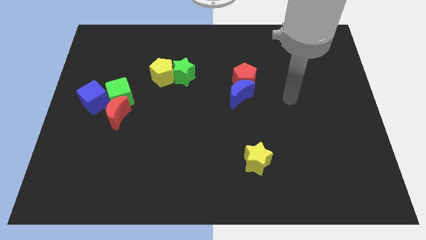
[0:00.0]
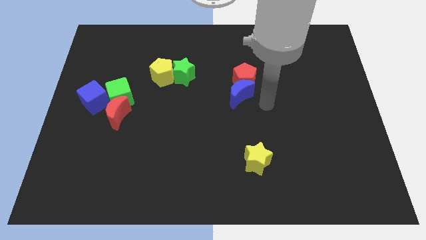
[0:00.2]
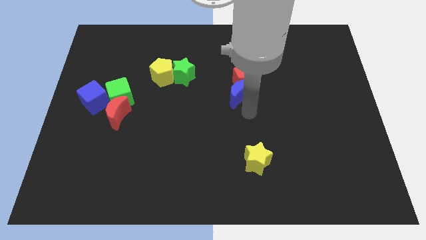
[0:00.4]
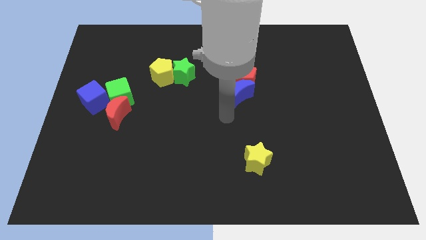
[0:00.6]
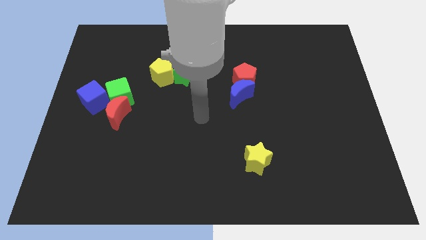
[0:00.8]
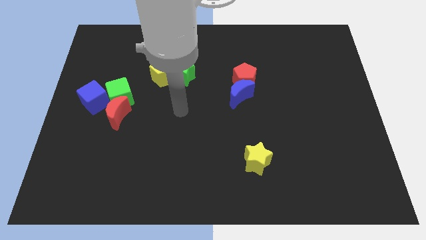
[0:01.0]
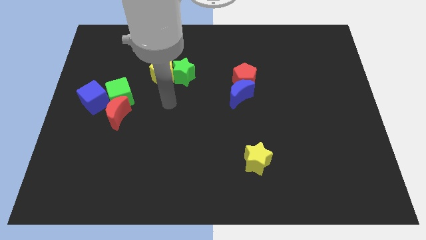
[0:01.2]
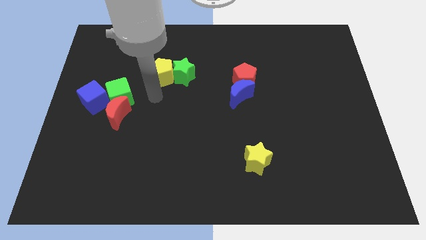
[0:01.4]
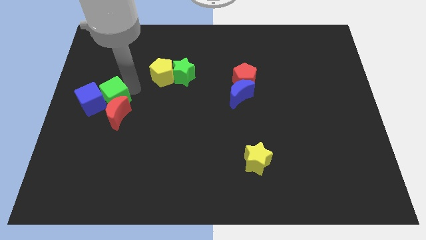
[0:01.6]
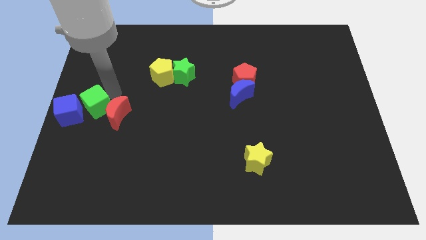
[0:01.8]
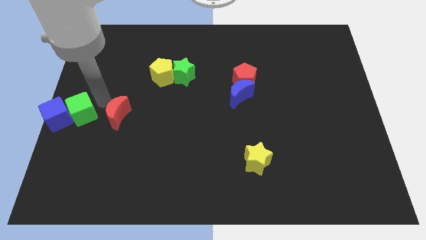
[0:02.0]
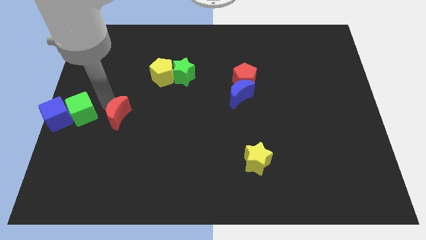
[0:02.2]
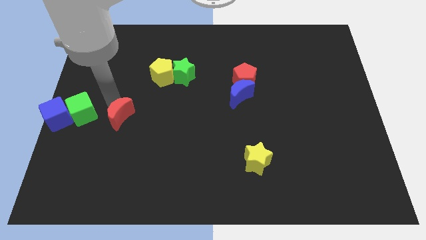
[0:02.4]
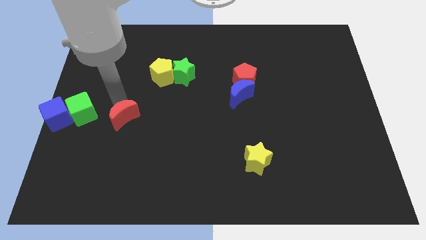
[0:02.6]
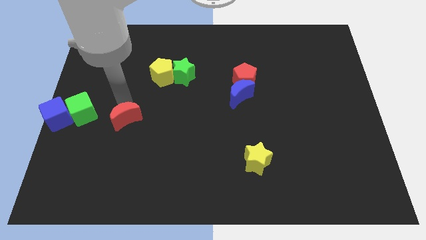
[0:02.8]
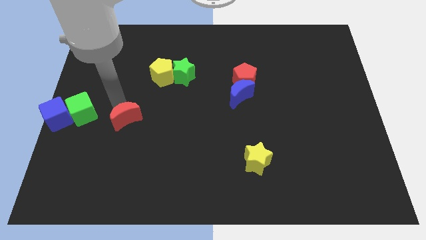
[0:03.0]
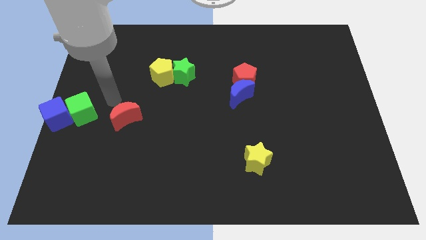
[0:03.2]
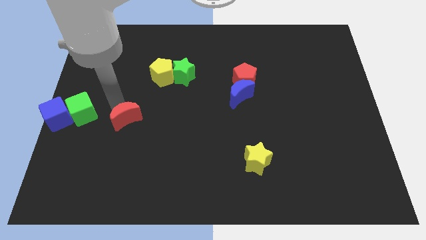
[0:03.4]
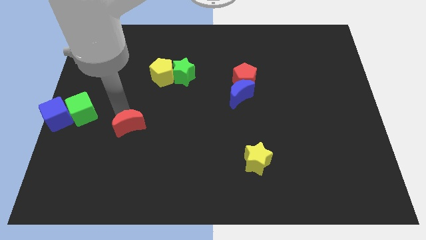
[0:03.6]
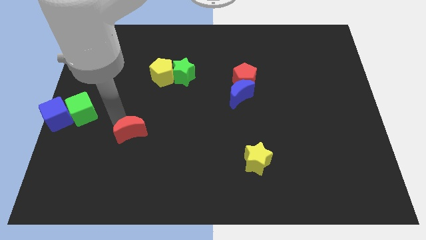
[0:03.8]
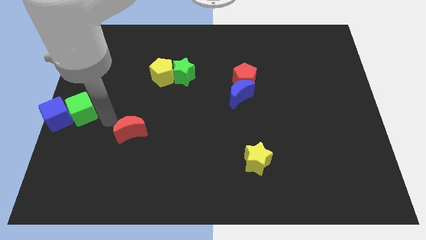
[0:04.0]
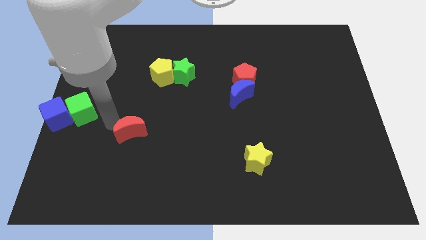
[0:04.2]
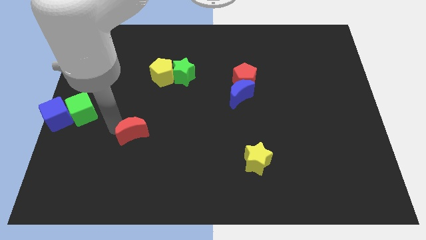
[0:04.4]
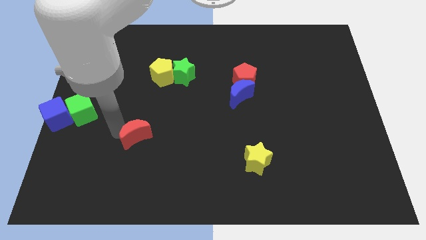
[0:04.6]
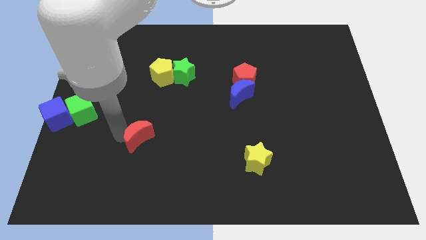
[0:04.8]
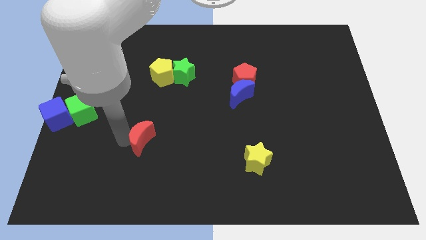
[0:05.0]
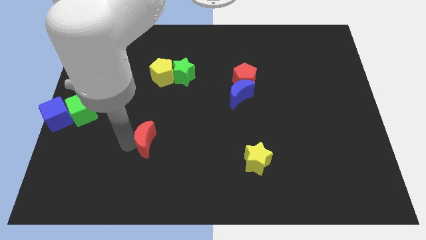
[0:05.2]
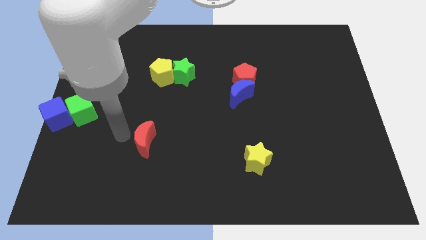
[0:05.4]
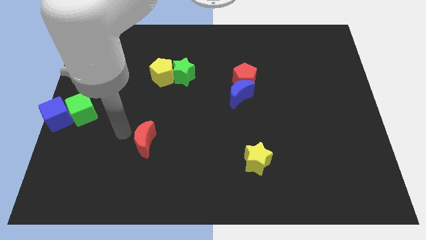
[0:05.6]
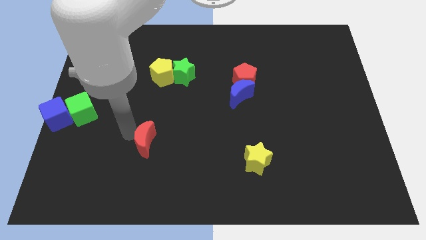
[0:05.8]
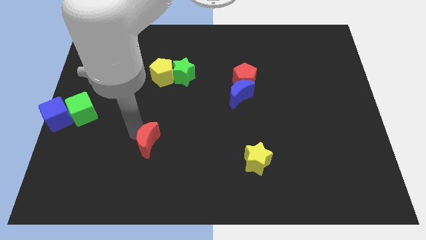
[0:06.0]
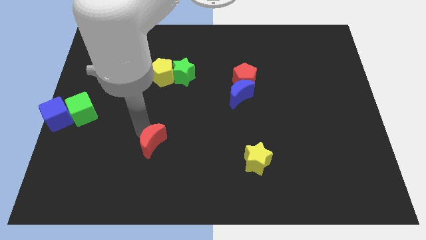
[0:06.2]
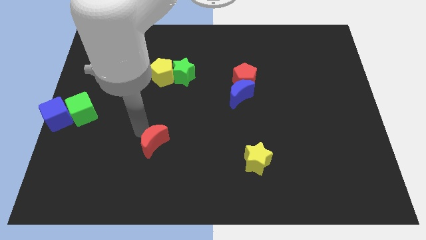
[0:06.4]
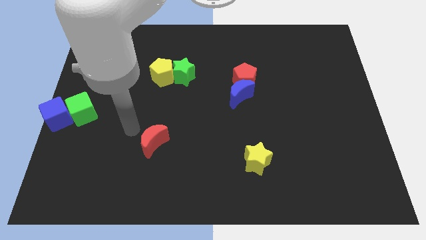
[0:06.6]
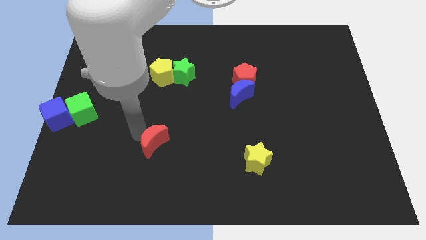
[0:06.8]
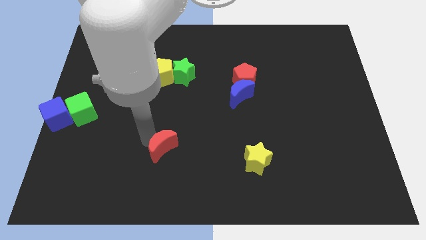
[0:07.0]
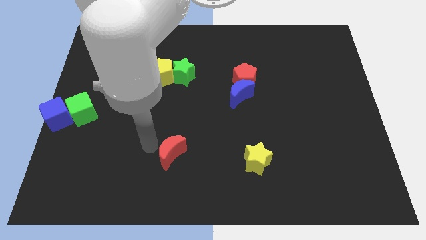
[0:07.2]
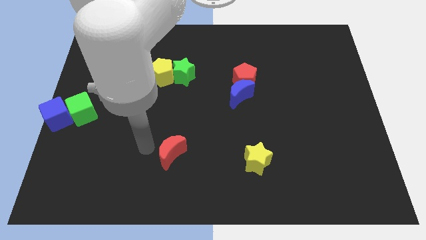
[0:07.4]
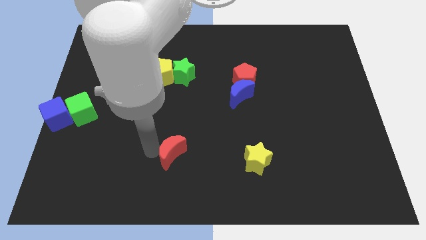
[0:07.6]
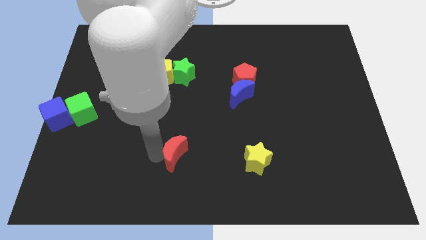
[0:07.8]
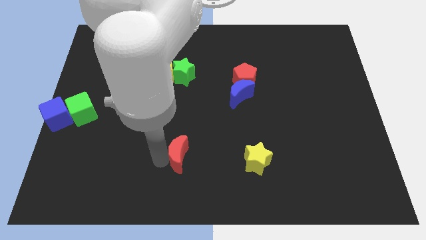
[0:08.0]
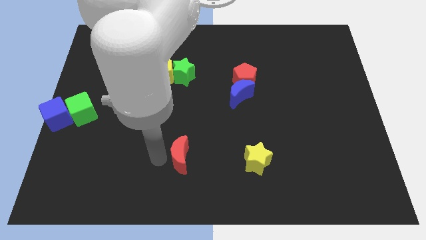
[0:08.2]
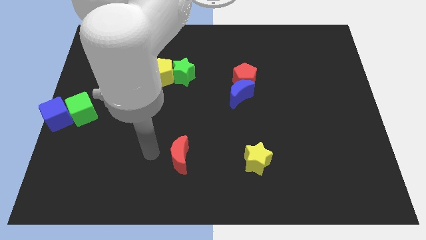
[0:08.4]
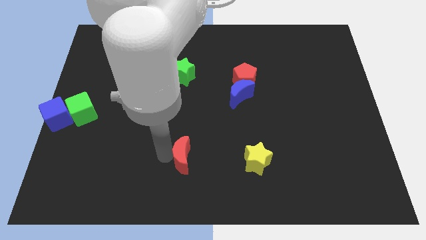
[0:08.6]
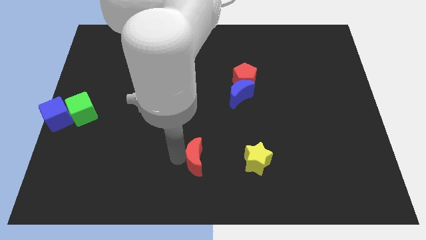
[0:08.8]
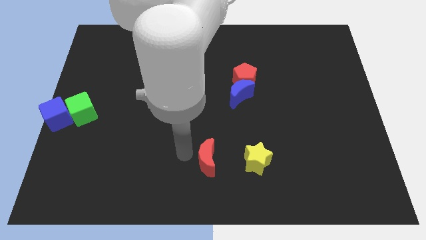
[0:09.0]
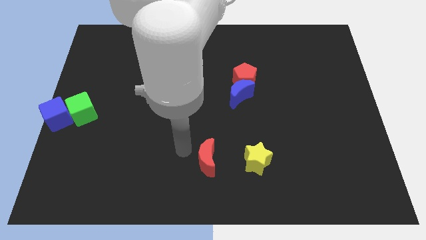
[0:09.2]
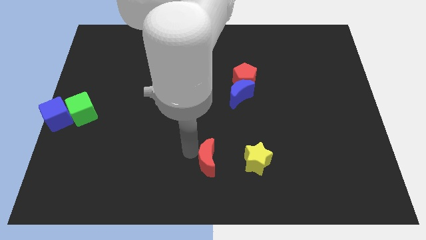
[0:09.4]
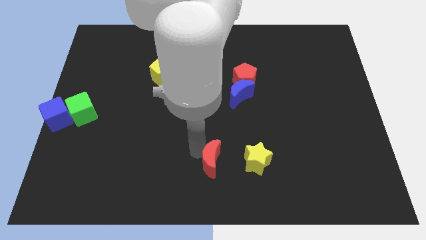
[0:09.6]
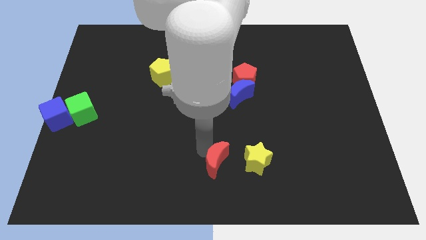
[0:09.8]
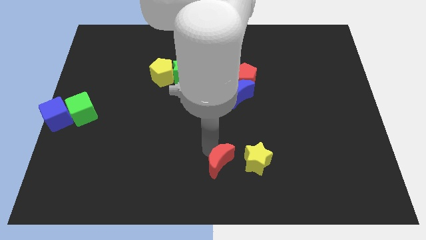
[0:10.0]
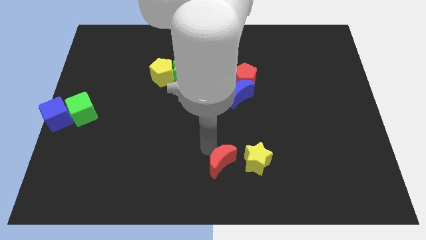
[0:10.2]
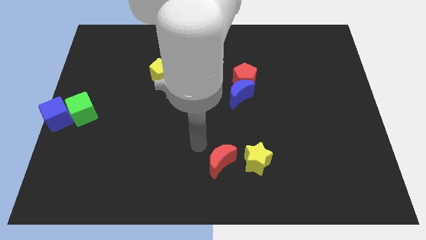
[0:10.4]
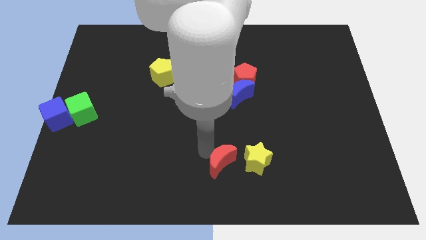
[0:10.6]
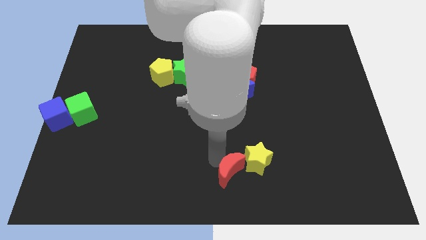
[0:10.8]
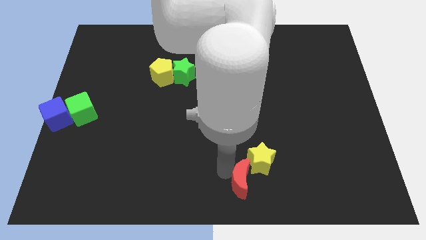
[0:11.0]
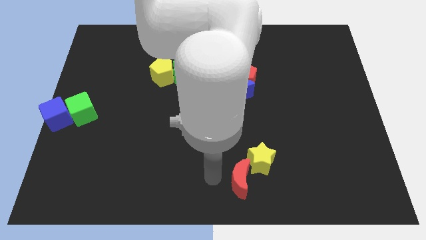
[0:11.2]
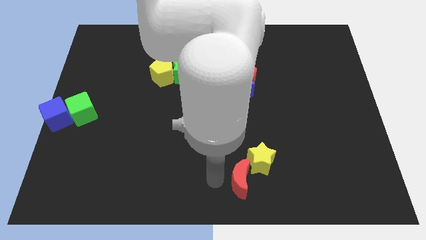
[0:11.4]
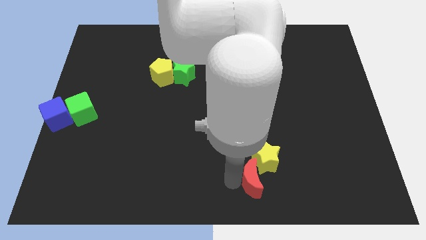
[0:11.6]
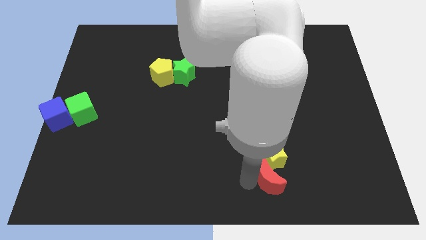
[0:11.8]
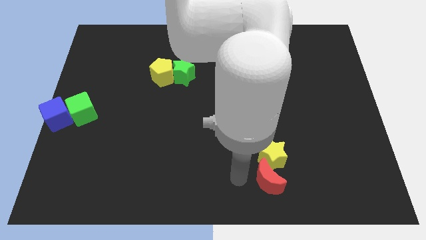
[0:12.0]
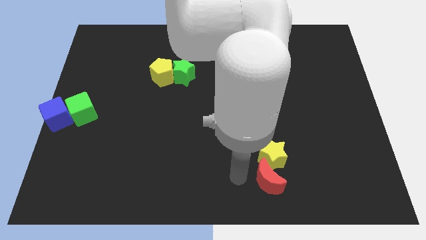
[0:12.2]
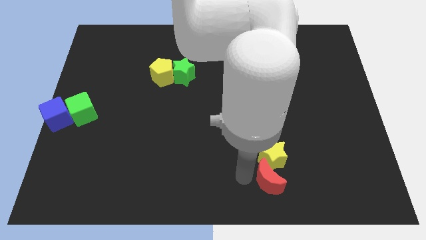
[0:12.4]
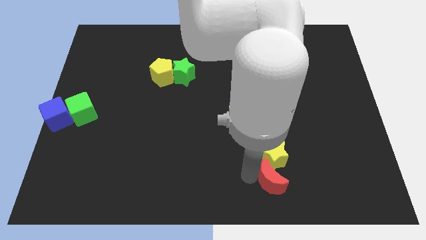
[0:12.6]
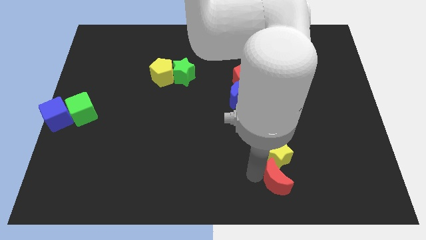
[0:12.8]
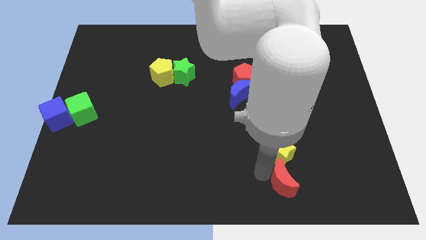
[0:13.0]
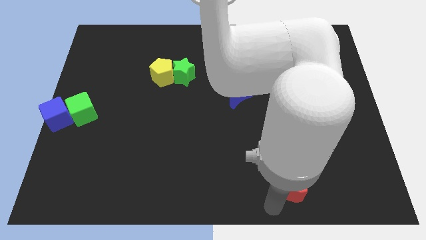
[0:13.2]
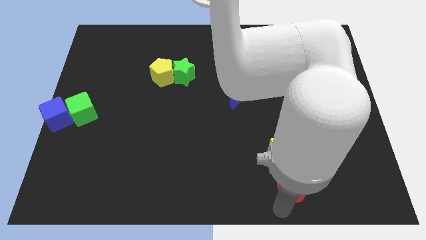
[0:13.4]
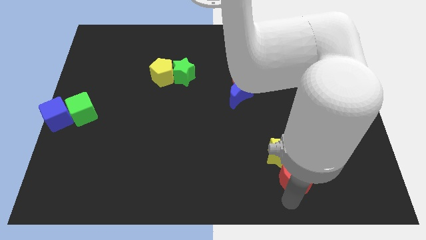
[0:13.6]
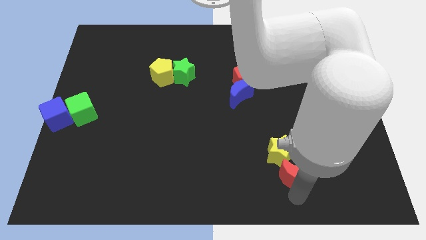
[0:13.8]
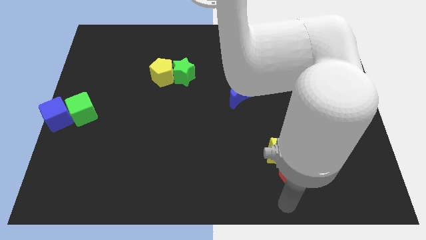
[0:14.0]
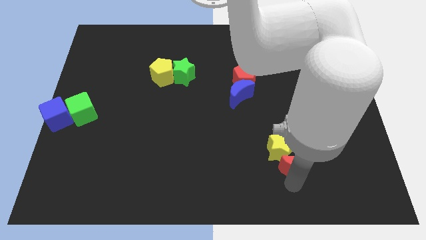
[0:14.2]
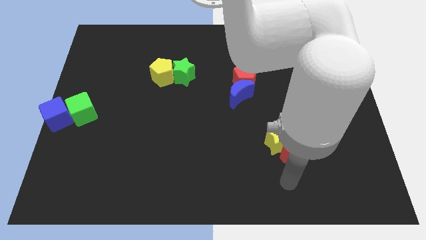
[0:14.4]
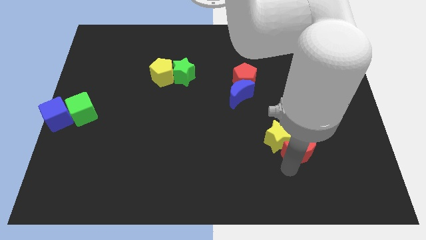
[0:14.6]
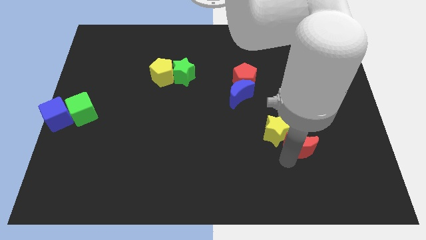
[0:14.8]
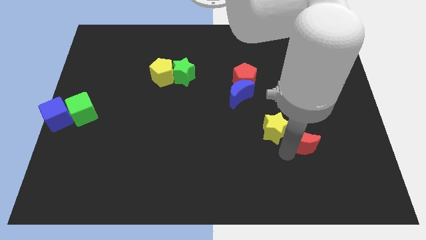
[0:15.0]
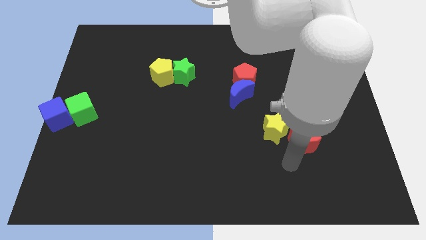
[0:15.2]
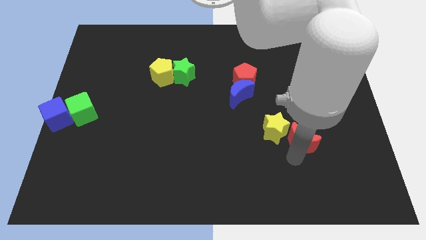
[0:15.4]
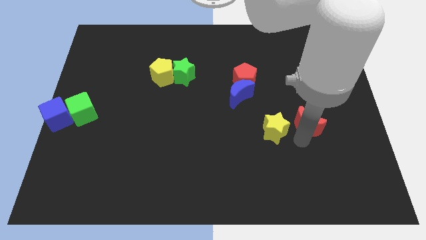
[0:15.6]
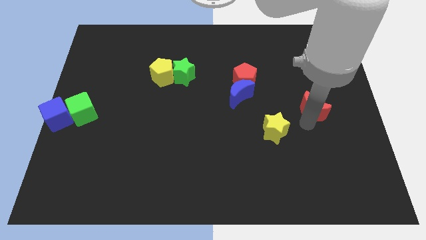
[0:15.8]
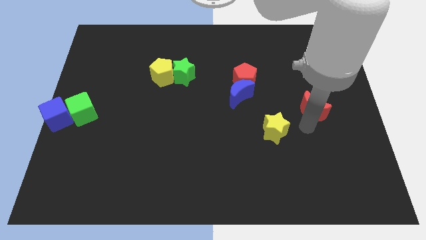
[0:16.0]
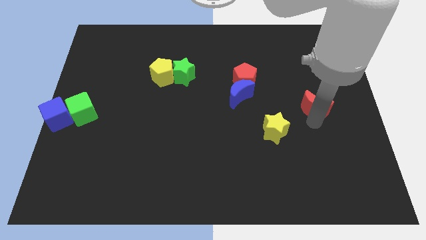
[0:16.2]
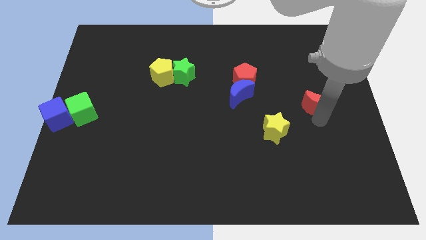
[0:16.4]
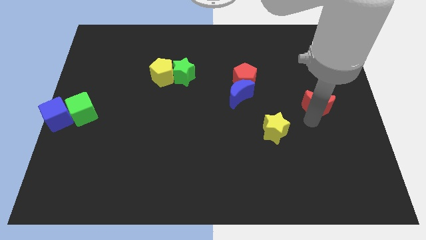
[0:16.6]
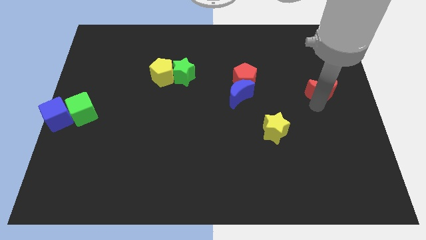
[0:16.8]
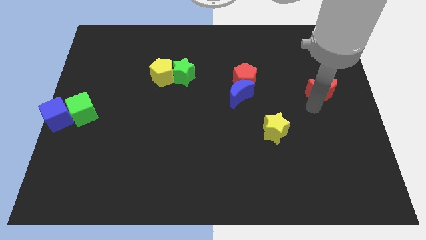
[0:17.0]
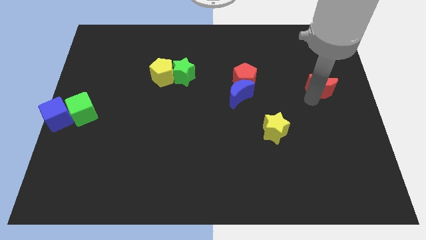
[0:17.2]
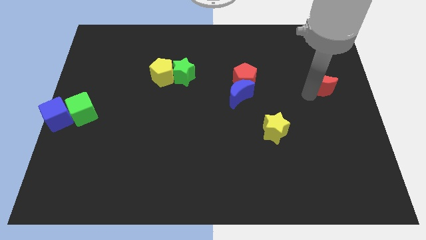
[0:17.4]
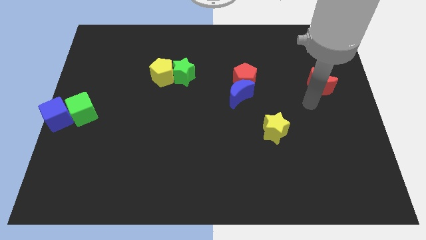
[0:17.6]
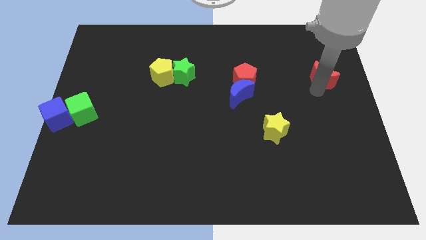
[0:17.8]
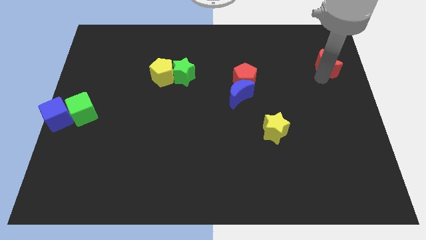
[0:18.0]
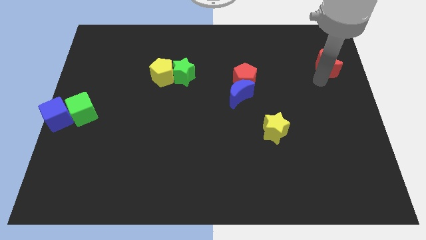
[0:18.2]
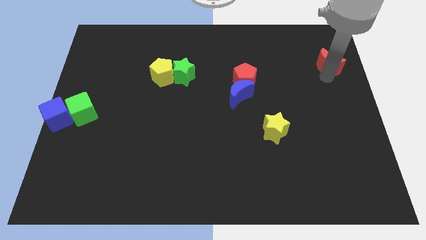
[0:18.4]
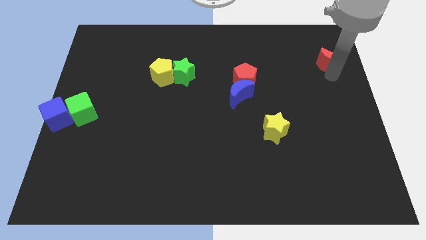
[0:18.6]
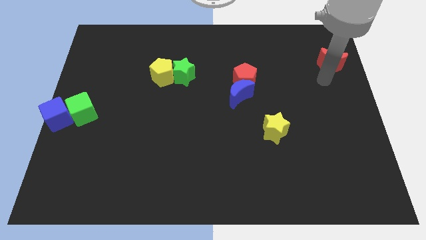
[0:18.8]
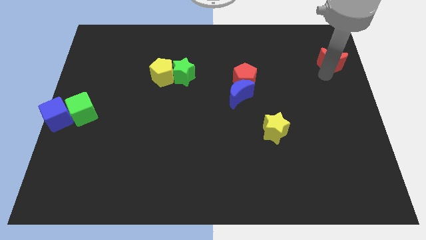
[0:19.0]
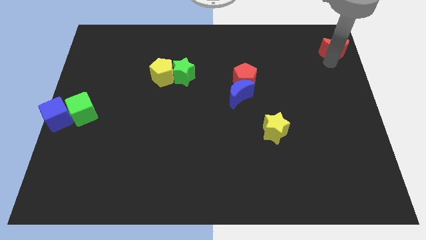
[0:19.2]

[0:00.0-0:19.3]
move the red moon to the upper right corner
